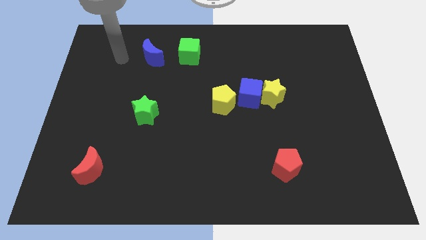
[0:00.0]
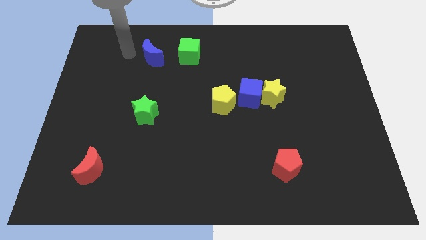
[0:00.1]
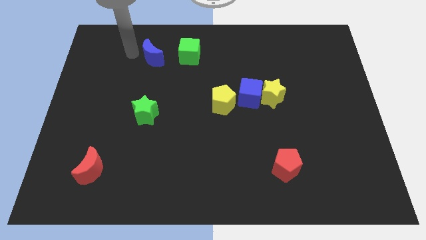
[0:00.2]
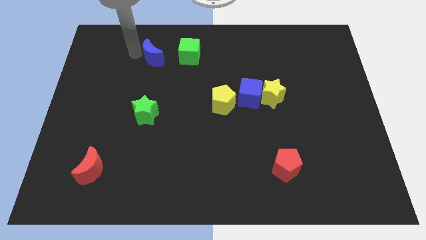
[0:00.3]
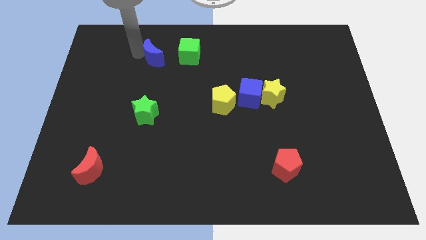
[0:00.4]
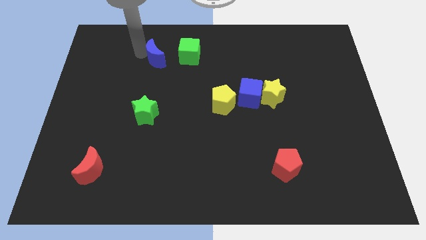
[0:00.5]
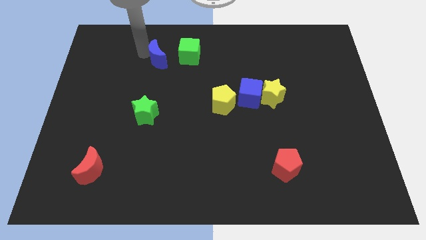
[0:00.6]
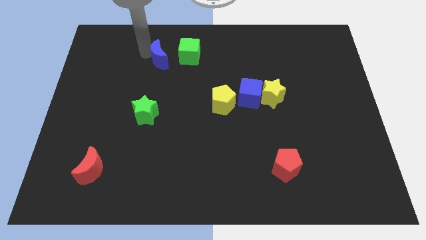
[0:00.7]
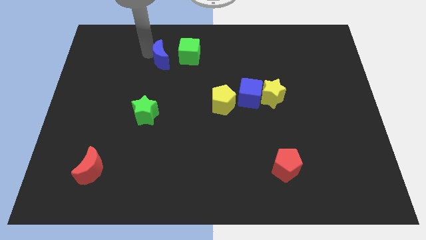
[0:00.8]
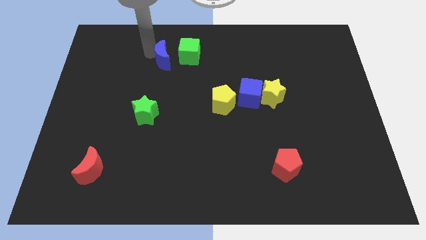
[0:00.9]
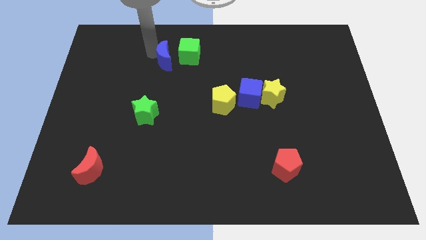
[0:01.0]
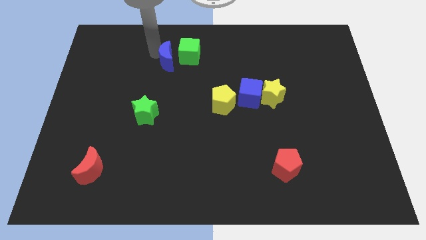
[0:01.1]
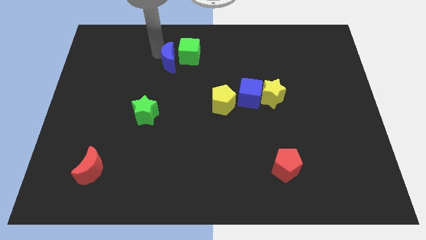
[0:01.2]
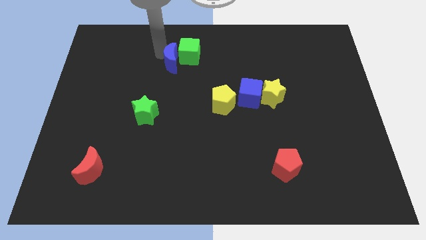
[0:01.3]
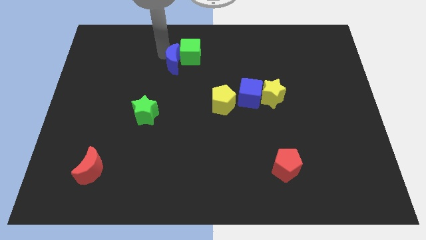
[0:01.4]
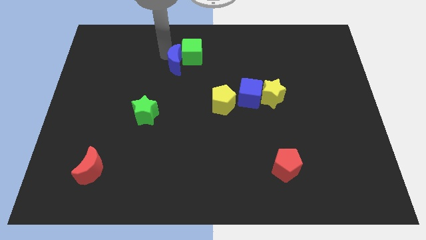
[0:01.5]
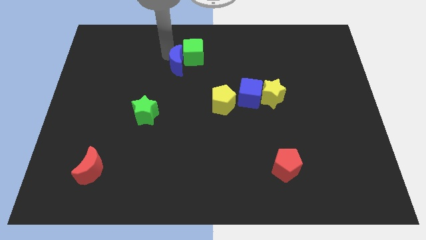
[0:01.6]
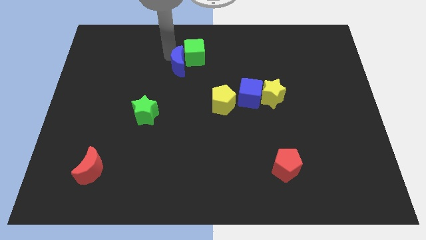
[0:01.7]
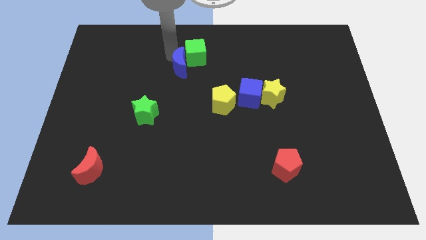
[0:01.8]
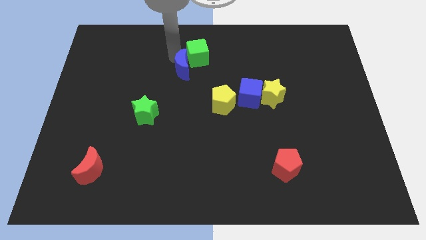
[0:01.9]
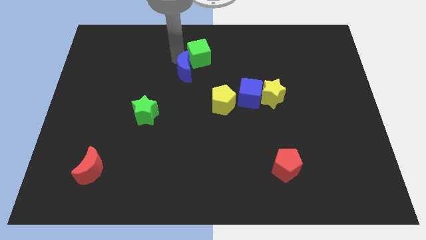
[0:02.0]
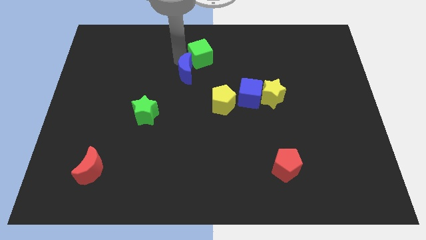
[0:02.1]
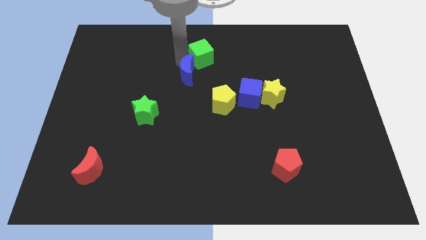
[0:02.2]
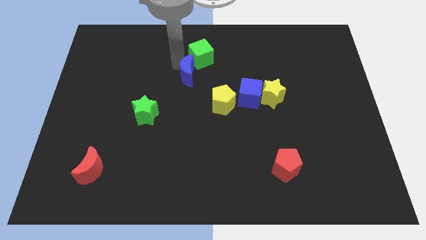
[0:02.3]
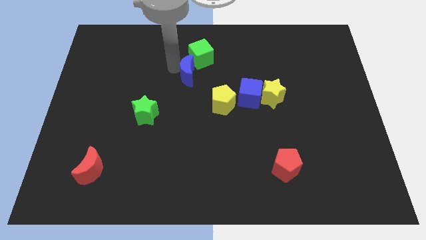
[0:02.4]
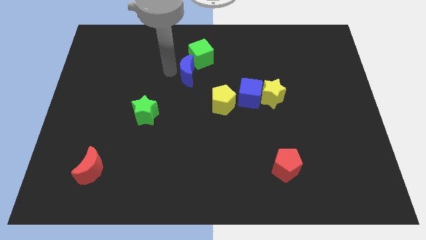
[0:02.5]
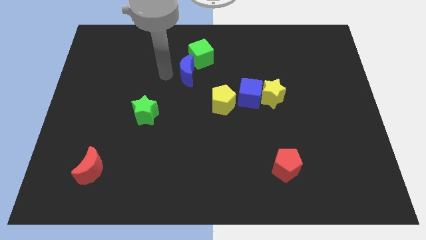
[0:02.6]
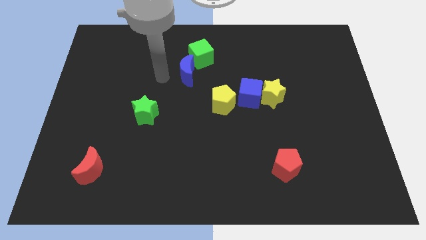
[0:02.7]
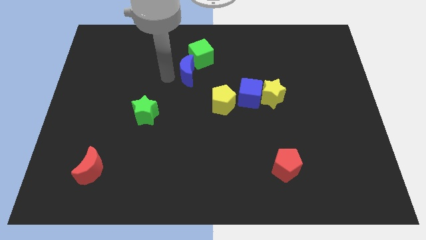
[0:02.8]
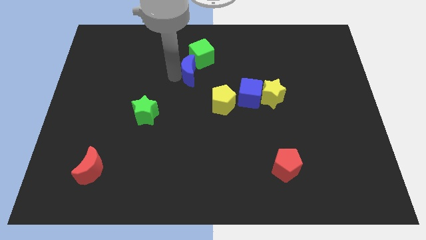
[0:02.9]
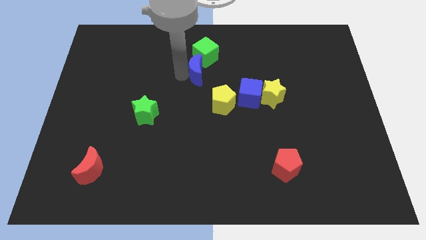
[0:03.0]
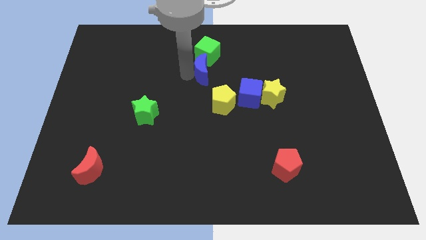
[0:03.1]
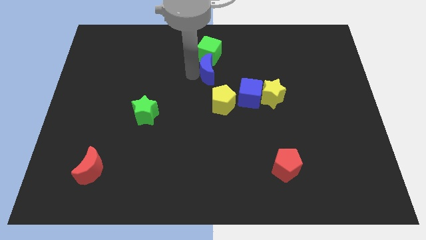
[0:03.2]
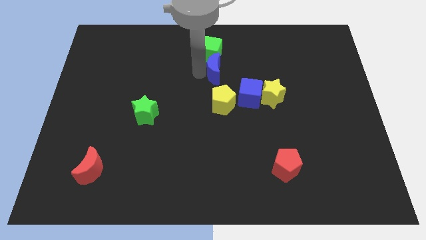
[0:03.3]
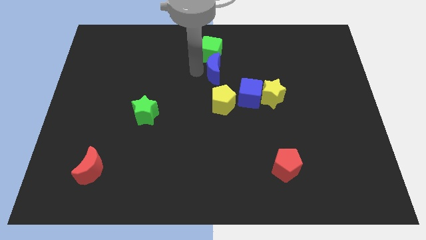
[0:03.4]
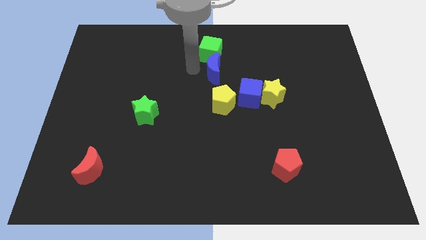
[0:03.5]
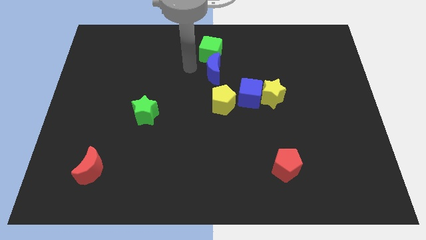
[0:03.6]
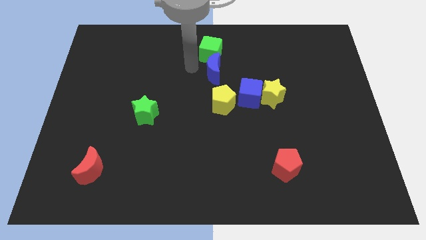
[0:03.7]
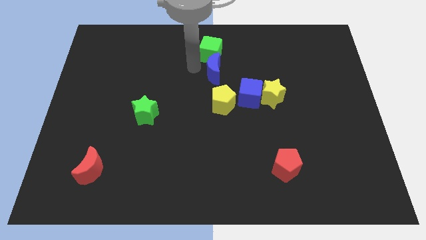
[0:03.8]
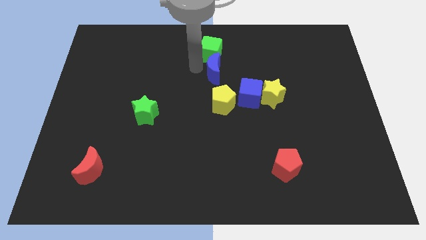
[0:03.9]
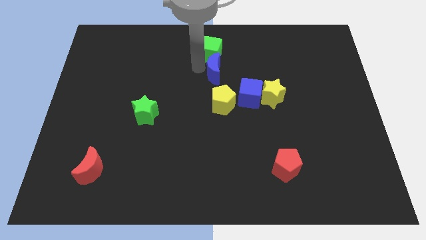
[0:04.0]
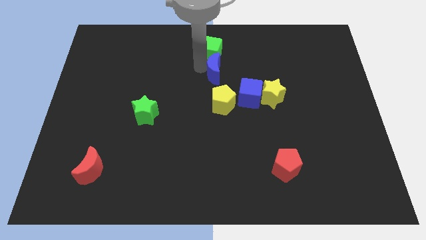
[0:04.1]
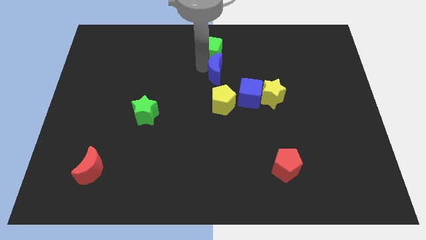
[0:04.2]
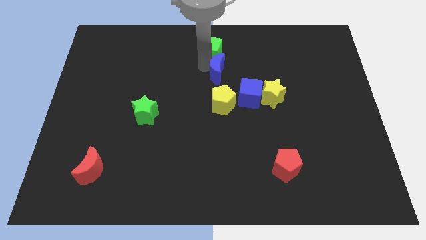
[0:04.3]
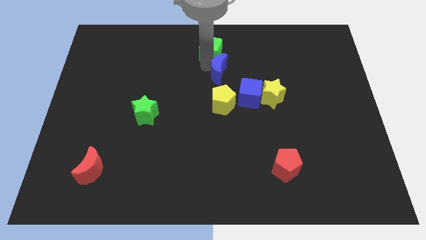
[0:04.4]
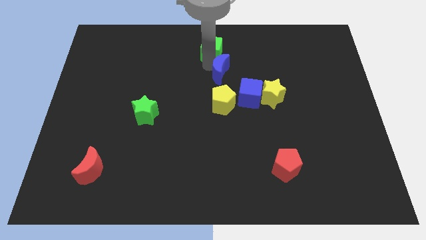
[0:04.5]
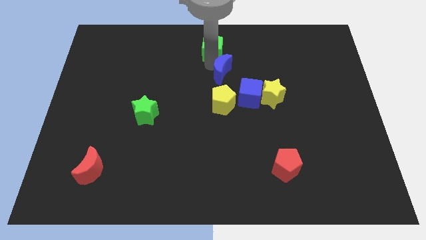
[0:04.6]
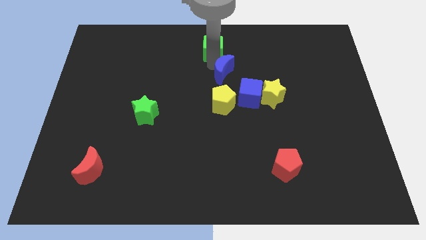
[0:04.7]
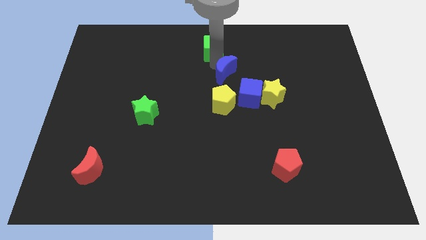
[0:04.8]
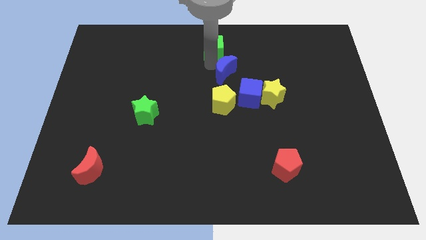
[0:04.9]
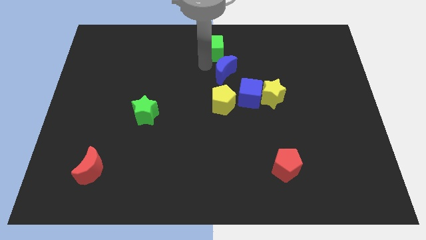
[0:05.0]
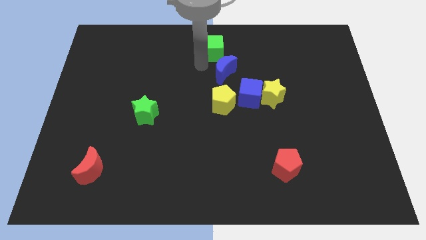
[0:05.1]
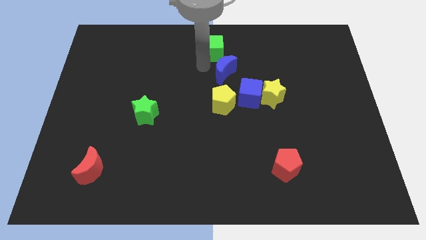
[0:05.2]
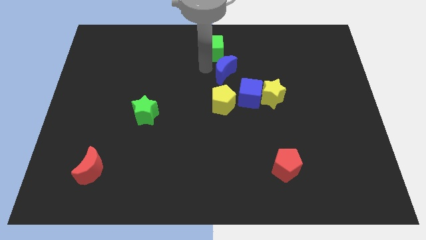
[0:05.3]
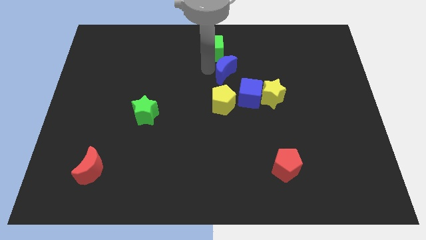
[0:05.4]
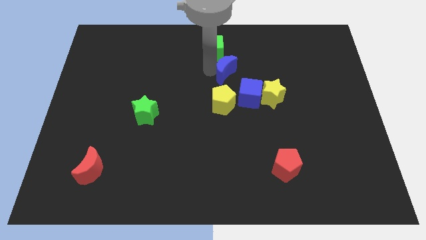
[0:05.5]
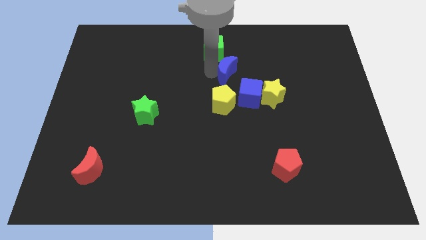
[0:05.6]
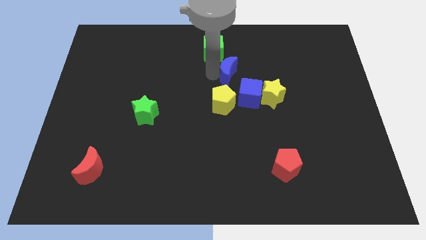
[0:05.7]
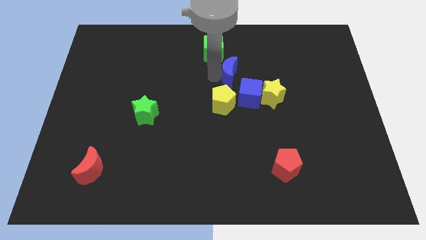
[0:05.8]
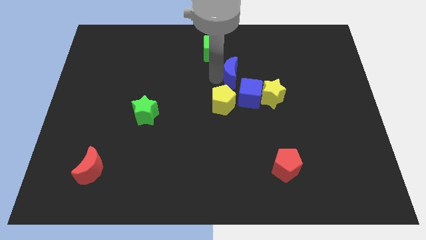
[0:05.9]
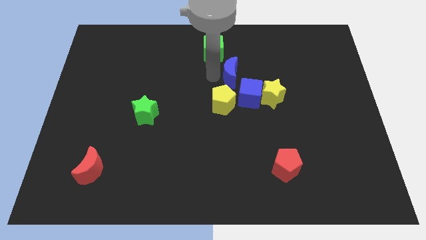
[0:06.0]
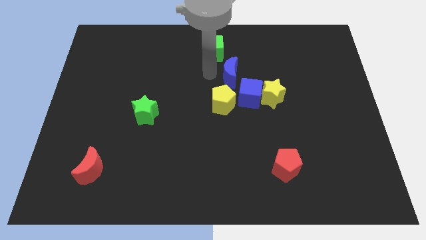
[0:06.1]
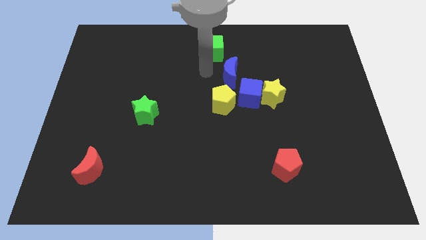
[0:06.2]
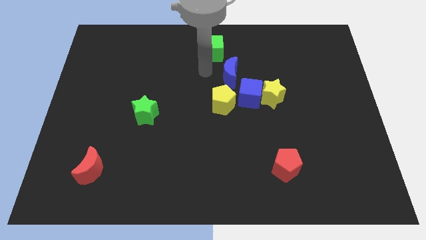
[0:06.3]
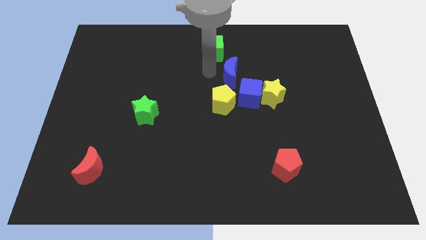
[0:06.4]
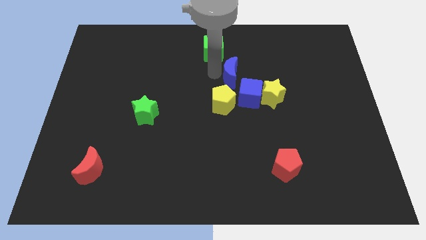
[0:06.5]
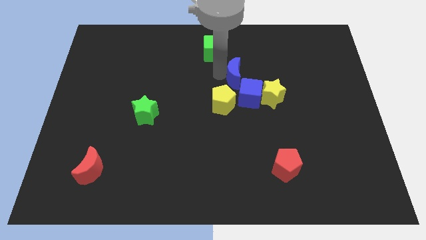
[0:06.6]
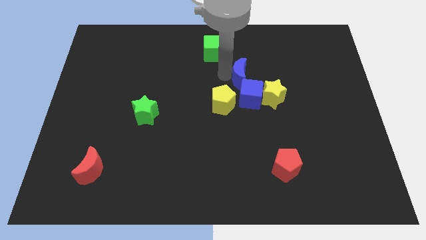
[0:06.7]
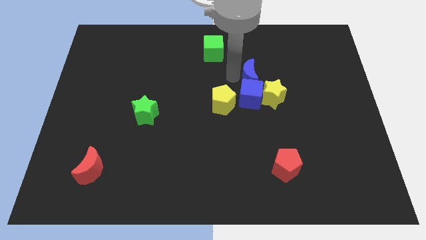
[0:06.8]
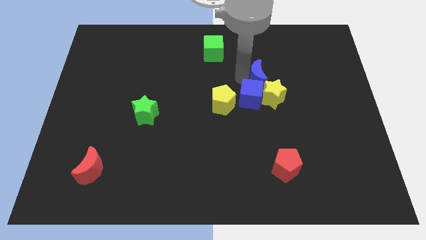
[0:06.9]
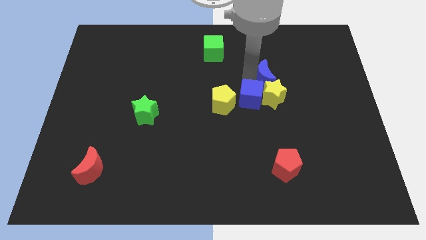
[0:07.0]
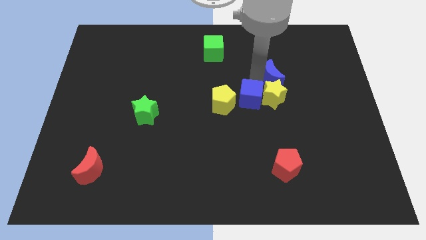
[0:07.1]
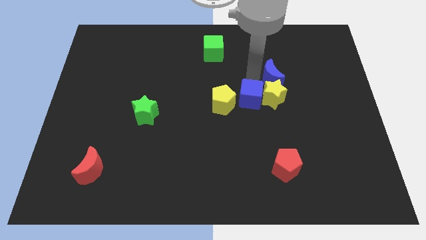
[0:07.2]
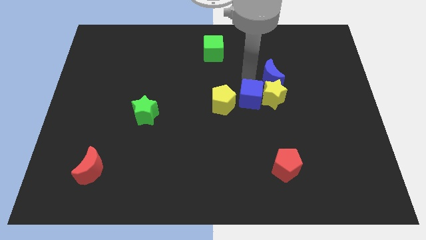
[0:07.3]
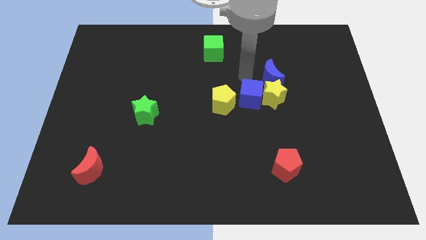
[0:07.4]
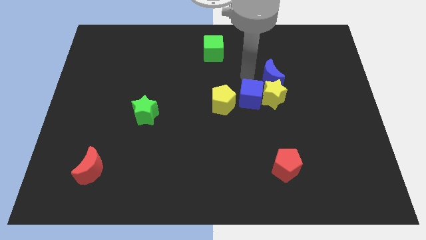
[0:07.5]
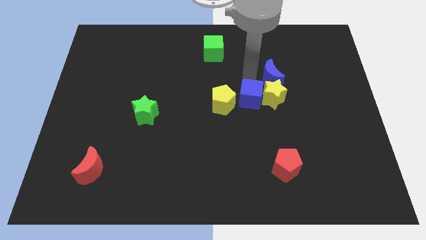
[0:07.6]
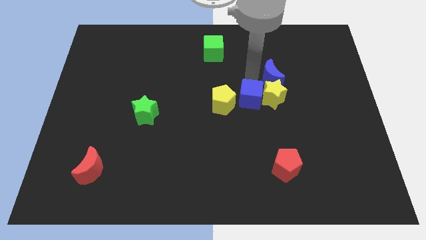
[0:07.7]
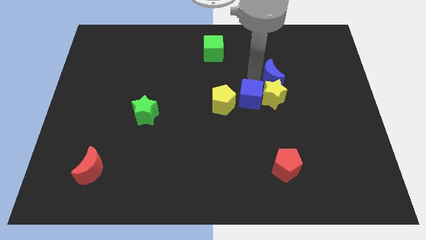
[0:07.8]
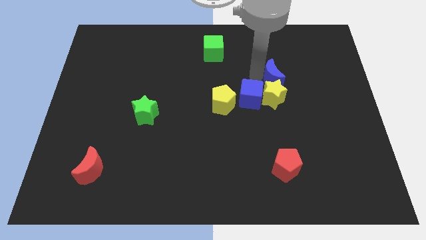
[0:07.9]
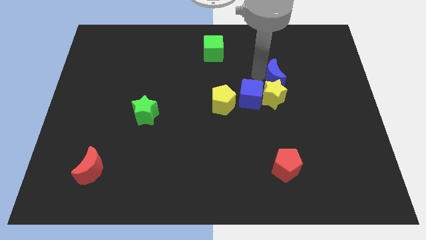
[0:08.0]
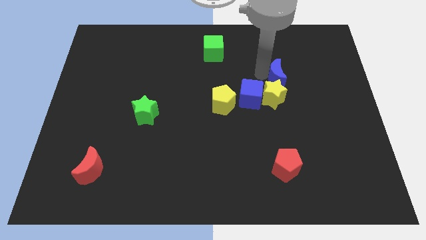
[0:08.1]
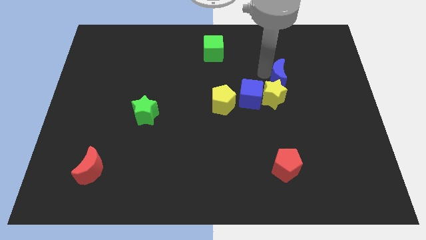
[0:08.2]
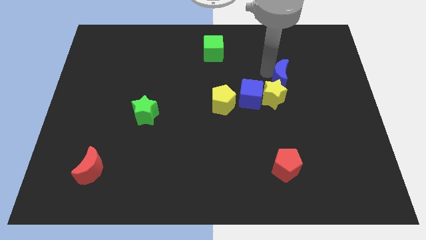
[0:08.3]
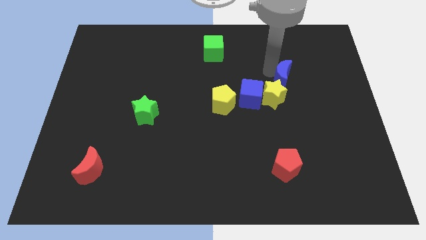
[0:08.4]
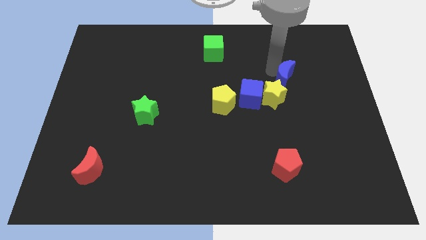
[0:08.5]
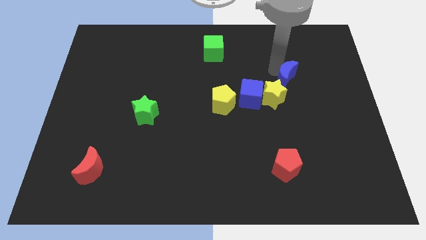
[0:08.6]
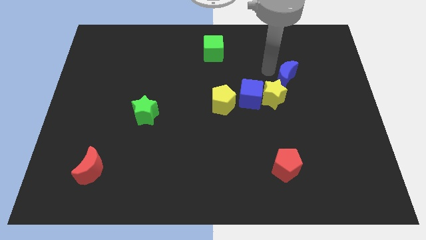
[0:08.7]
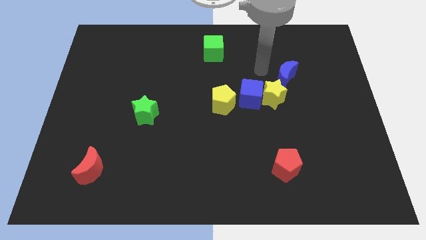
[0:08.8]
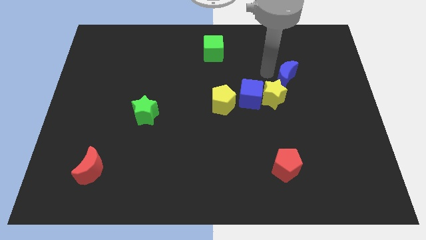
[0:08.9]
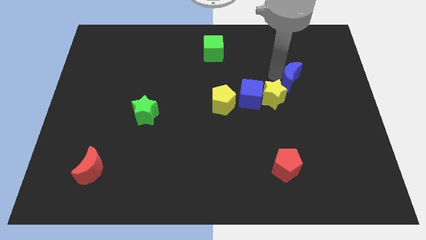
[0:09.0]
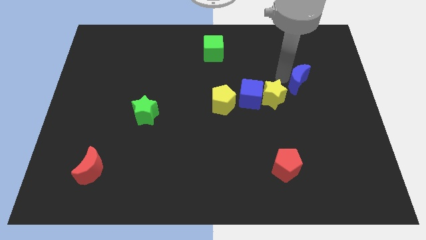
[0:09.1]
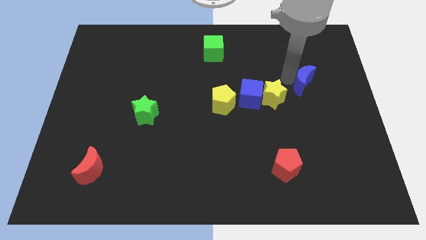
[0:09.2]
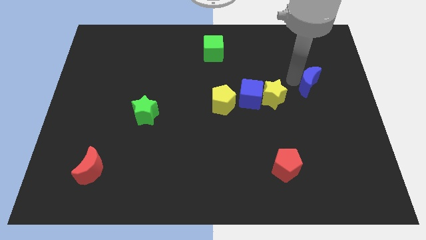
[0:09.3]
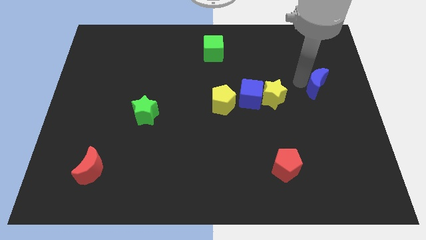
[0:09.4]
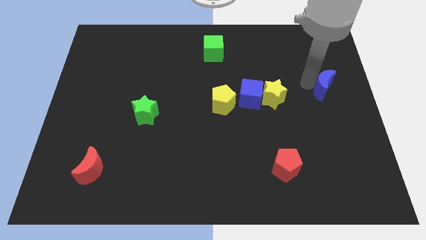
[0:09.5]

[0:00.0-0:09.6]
slide the blue moon to the right side
